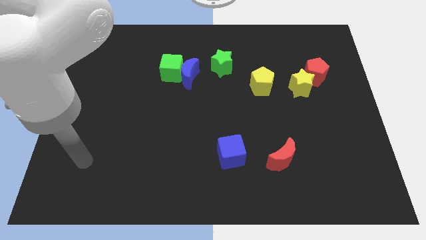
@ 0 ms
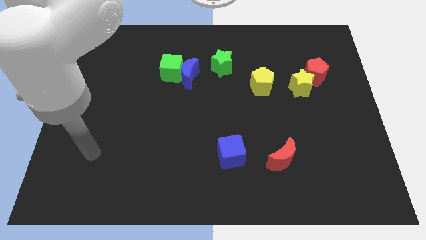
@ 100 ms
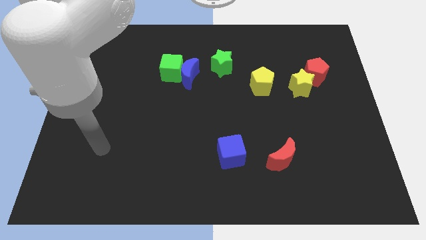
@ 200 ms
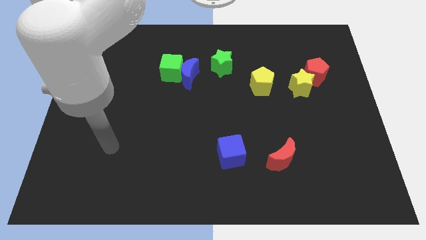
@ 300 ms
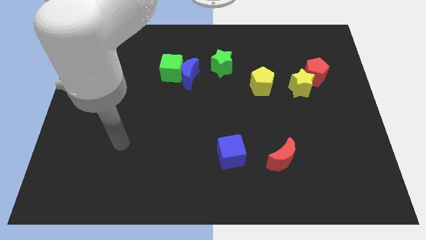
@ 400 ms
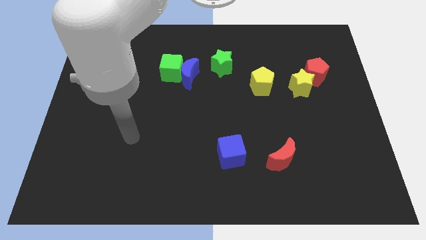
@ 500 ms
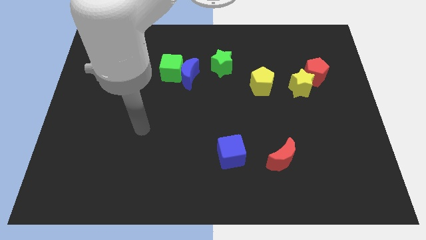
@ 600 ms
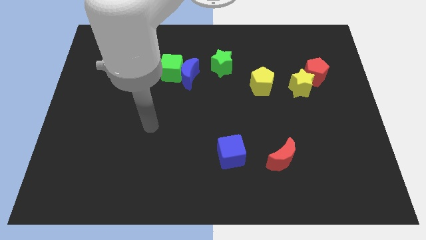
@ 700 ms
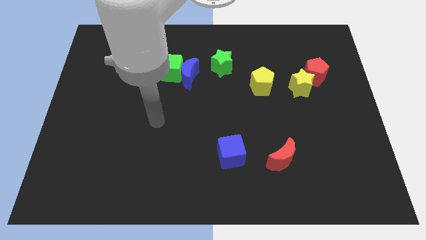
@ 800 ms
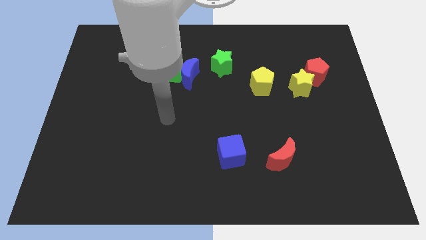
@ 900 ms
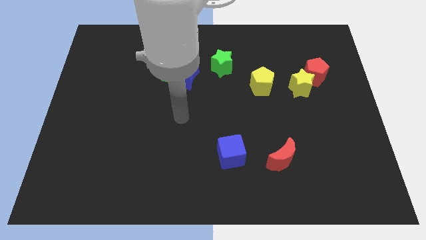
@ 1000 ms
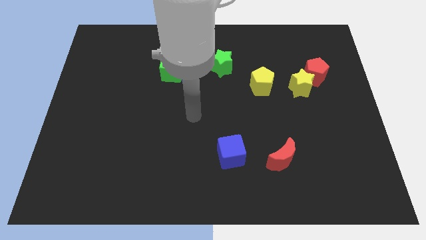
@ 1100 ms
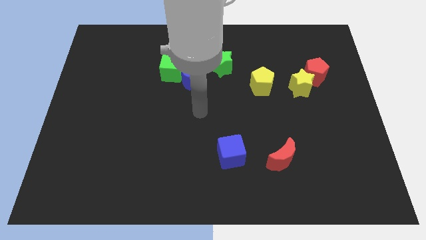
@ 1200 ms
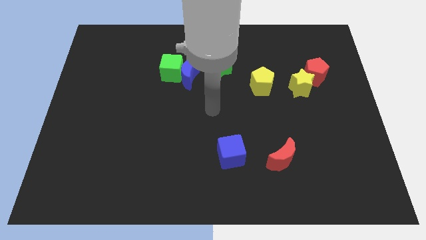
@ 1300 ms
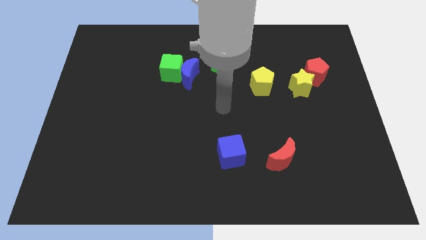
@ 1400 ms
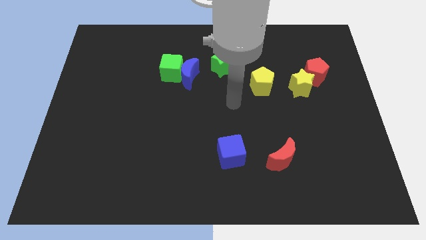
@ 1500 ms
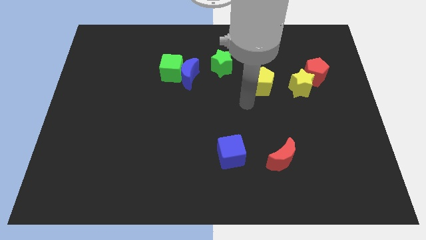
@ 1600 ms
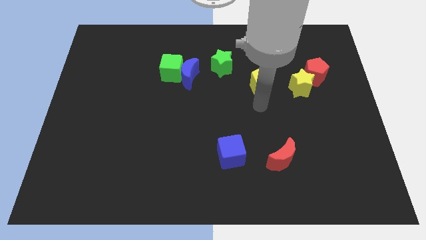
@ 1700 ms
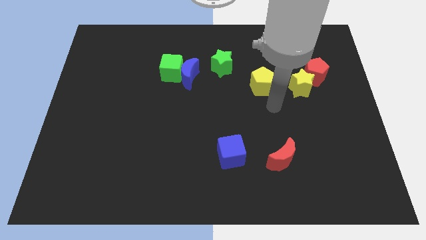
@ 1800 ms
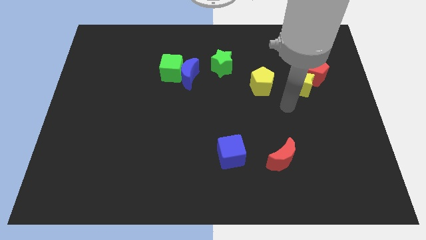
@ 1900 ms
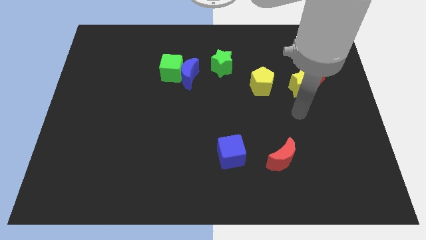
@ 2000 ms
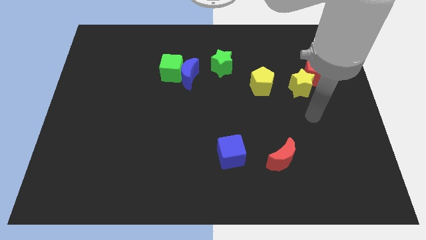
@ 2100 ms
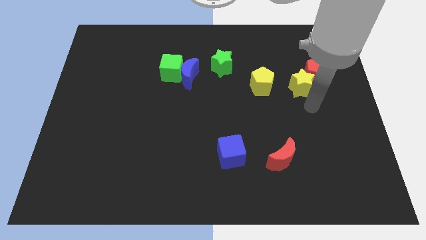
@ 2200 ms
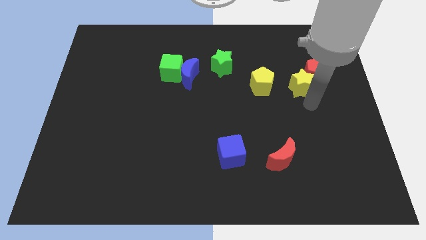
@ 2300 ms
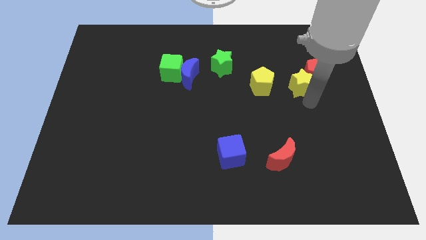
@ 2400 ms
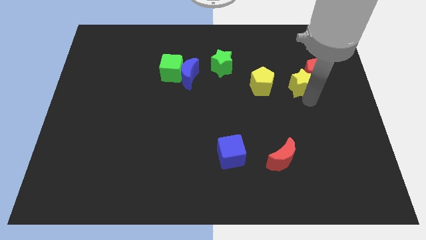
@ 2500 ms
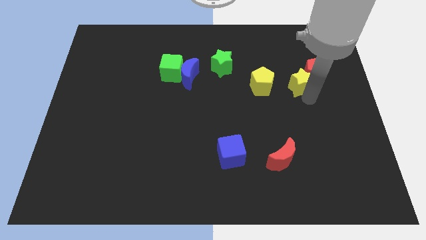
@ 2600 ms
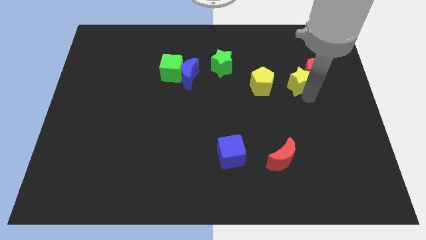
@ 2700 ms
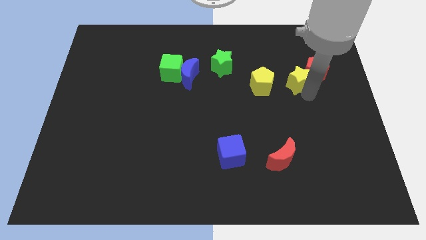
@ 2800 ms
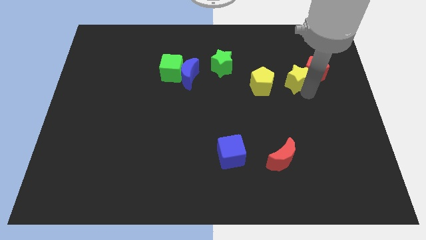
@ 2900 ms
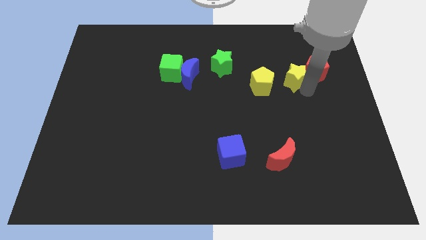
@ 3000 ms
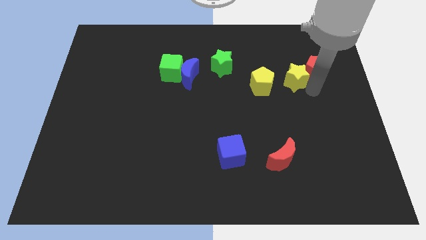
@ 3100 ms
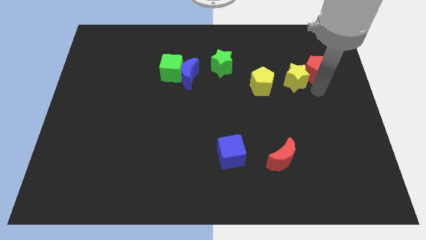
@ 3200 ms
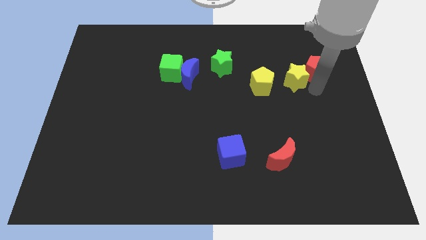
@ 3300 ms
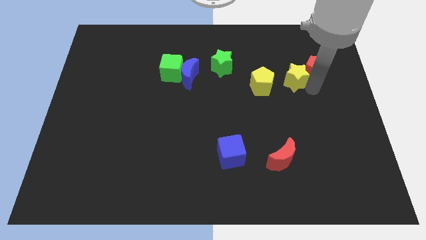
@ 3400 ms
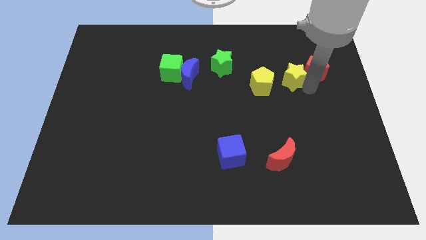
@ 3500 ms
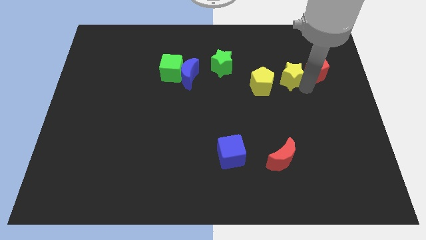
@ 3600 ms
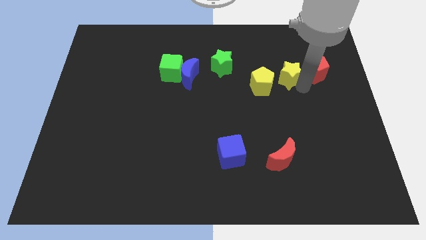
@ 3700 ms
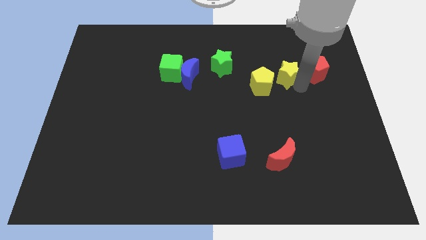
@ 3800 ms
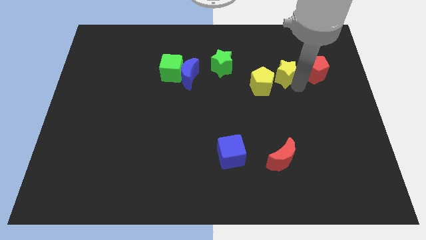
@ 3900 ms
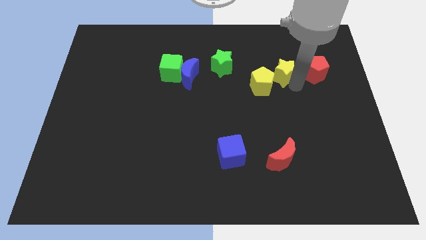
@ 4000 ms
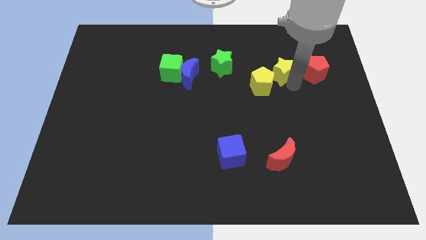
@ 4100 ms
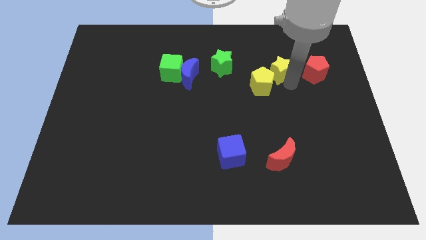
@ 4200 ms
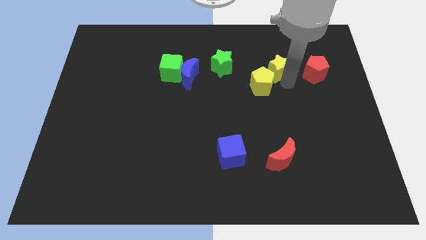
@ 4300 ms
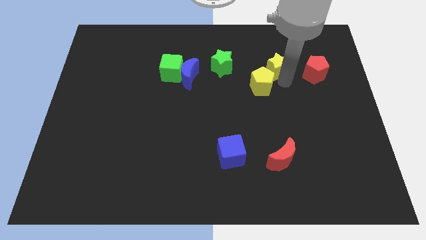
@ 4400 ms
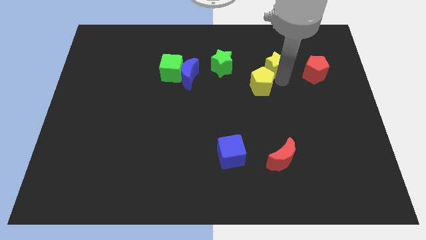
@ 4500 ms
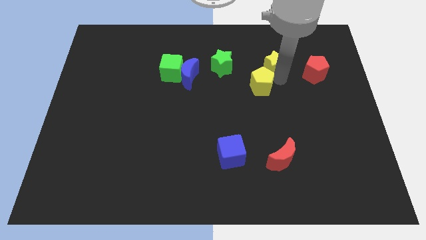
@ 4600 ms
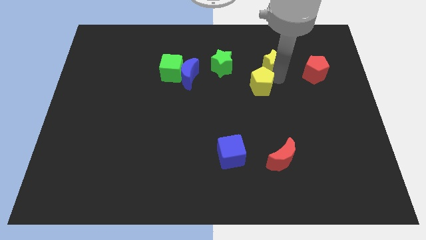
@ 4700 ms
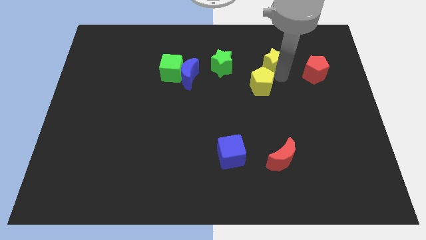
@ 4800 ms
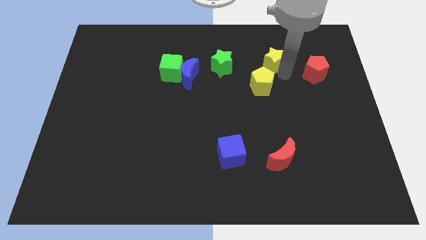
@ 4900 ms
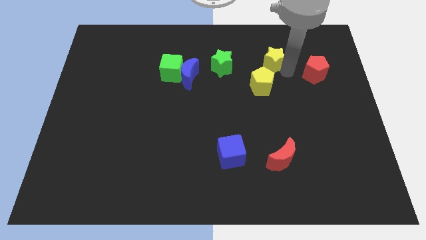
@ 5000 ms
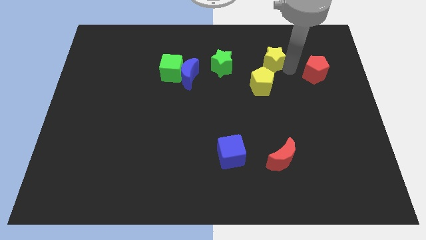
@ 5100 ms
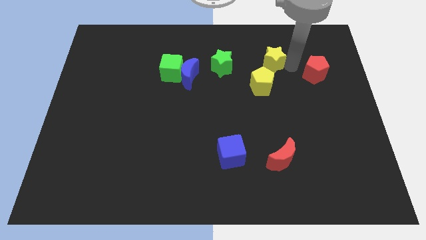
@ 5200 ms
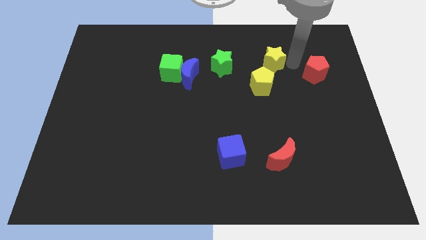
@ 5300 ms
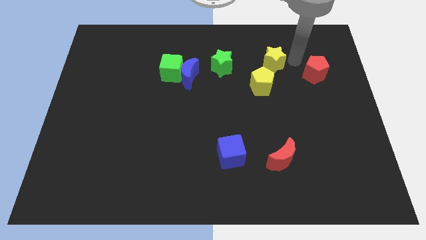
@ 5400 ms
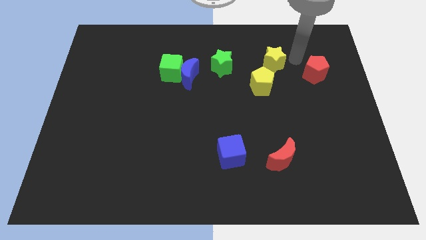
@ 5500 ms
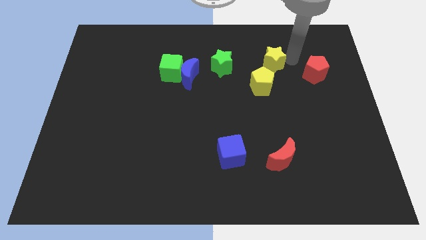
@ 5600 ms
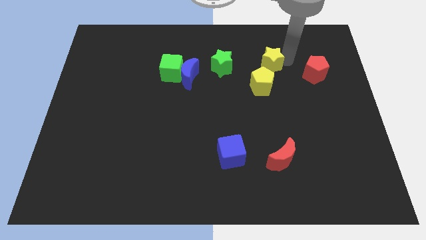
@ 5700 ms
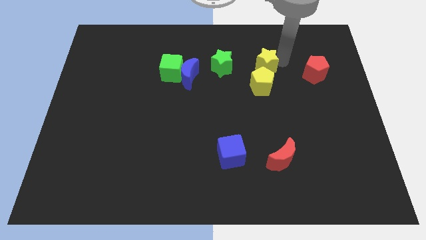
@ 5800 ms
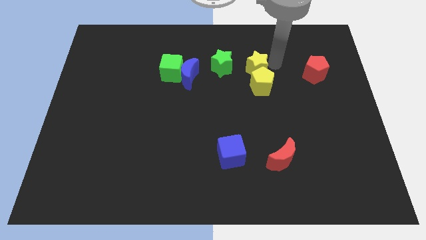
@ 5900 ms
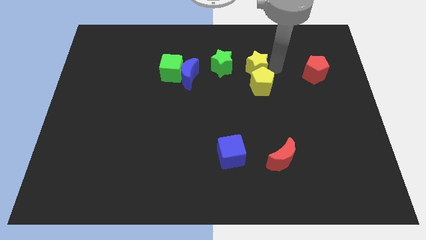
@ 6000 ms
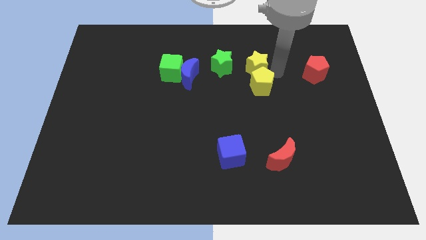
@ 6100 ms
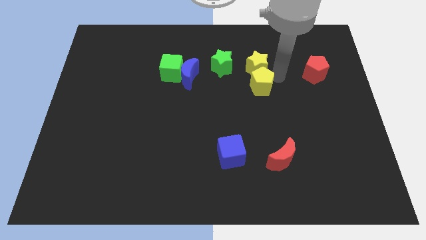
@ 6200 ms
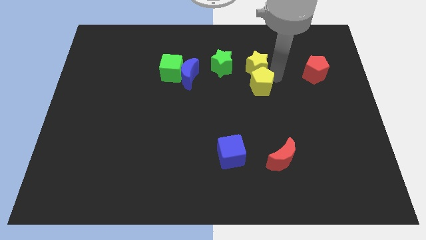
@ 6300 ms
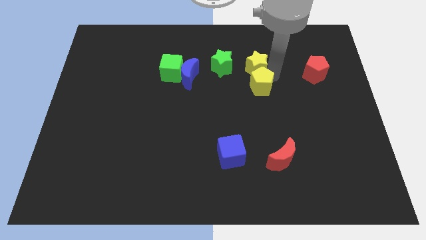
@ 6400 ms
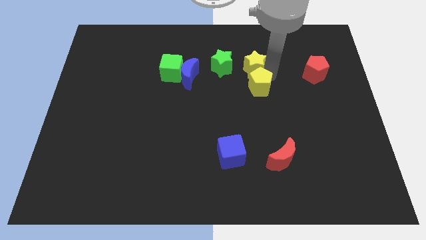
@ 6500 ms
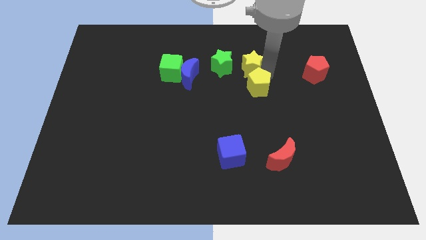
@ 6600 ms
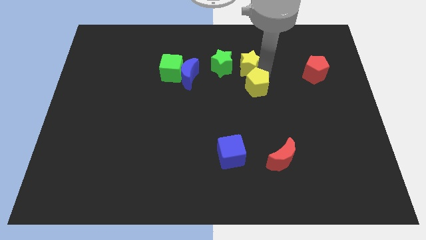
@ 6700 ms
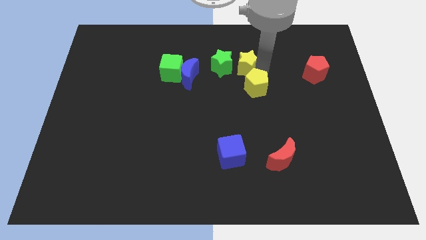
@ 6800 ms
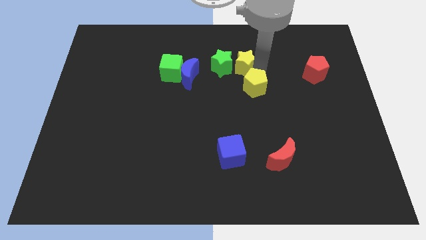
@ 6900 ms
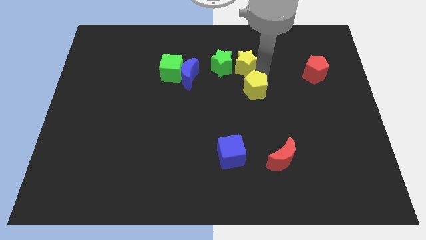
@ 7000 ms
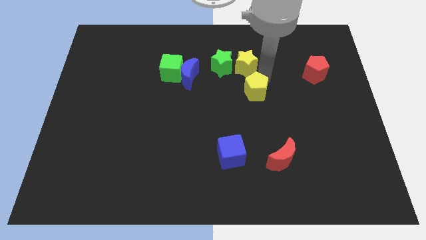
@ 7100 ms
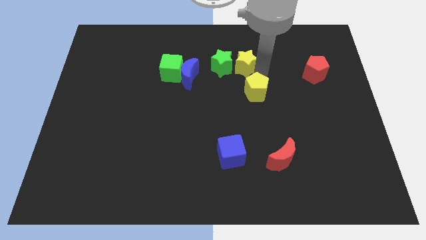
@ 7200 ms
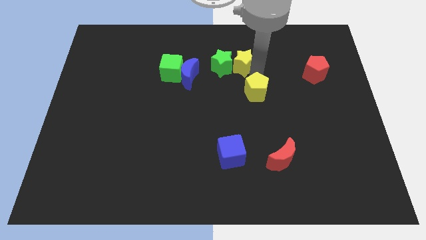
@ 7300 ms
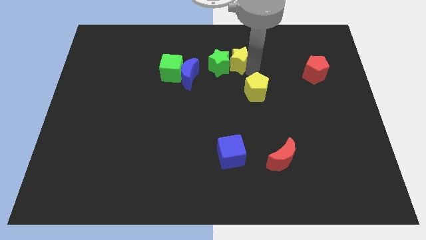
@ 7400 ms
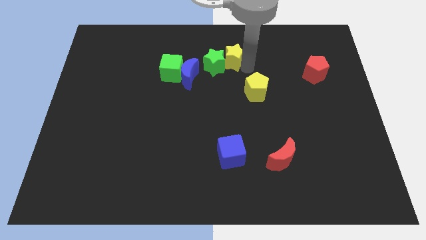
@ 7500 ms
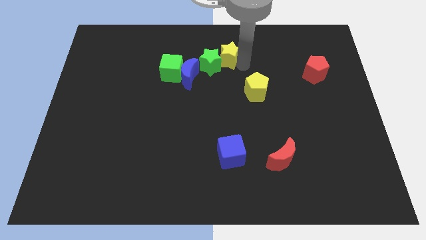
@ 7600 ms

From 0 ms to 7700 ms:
push the yellow star to the top right side of the blue moon

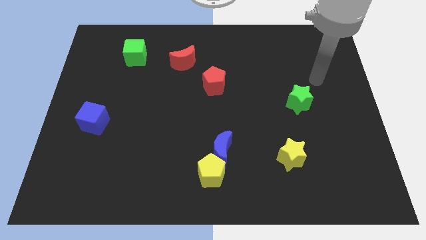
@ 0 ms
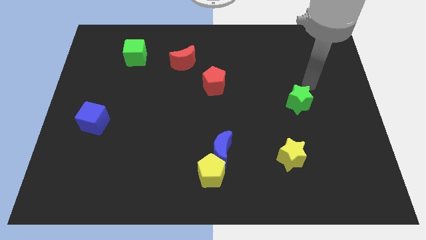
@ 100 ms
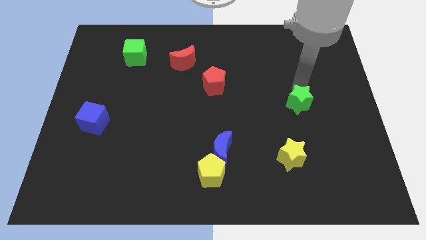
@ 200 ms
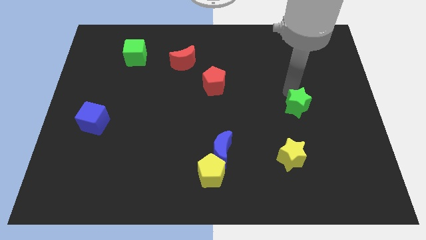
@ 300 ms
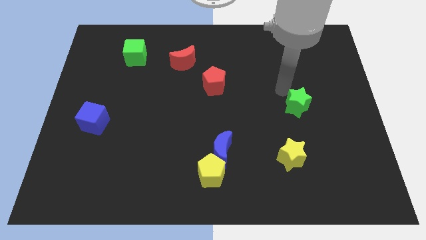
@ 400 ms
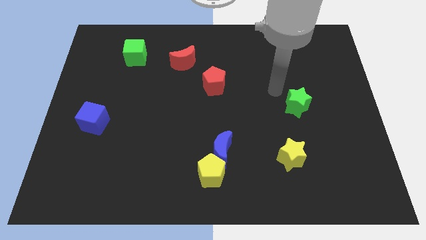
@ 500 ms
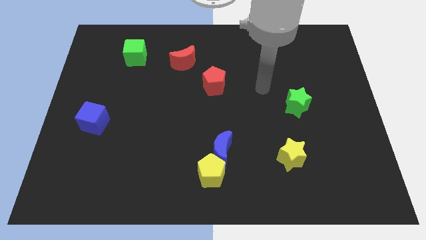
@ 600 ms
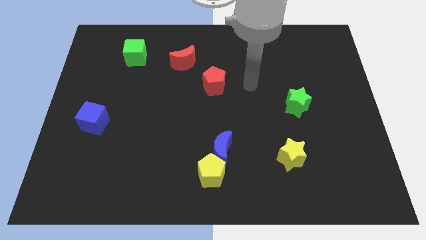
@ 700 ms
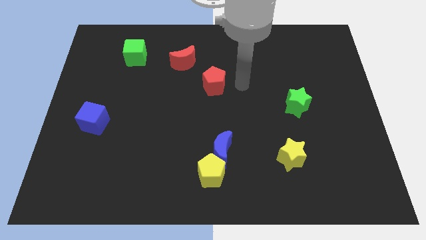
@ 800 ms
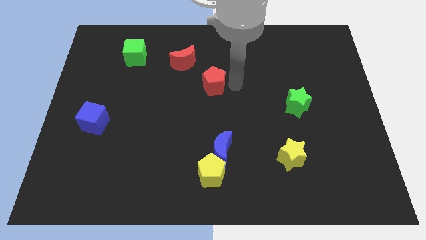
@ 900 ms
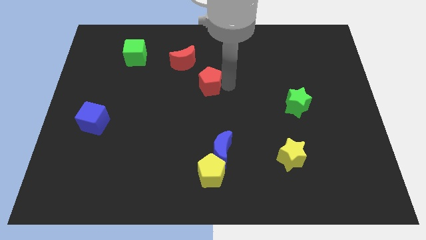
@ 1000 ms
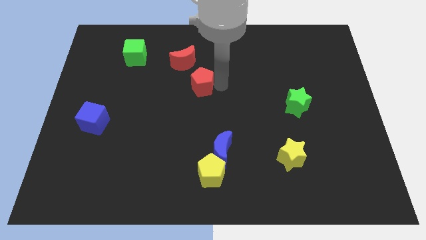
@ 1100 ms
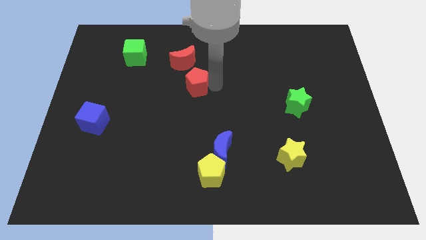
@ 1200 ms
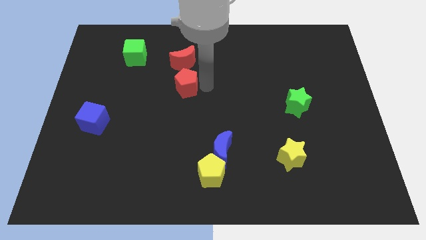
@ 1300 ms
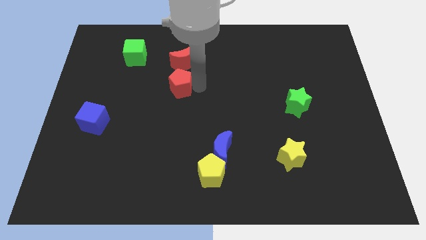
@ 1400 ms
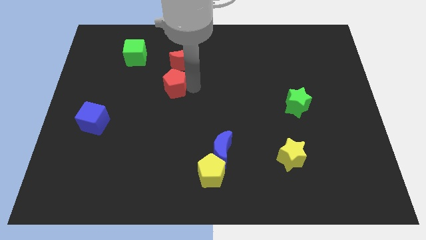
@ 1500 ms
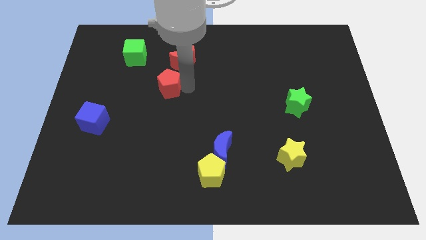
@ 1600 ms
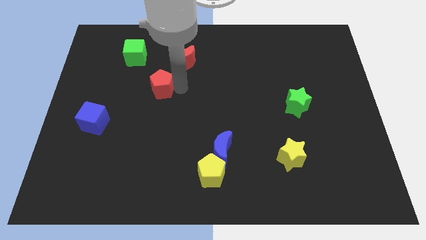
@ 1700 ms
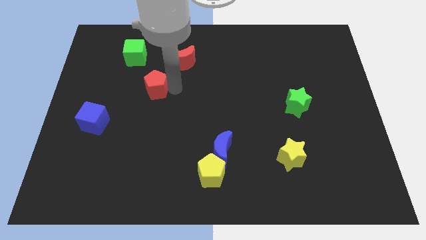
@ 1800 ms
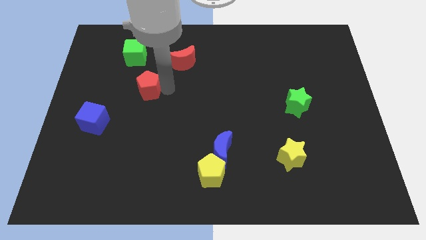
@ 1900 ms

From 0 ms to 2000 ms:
slide the red pentagon to the bottom side of the green cube
